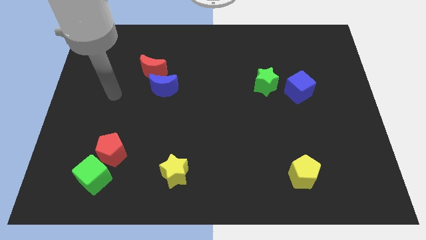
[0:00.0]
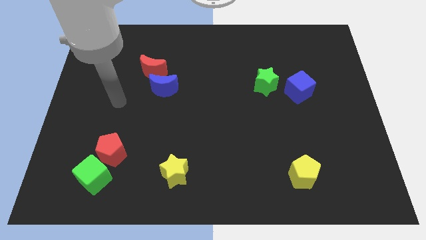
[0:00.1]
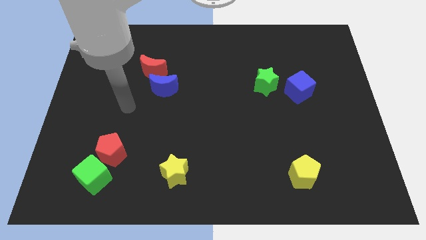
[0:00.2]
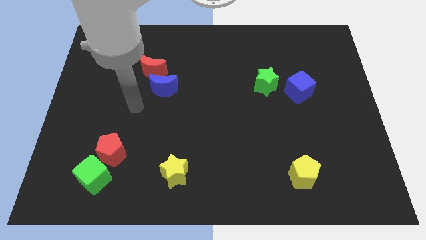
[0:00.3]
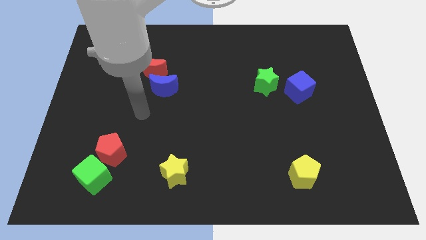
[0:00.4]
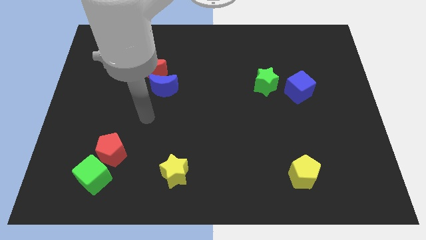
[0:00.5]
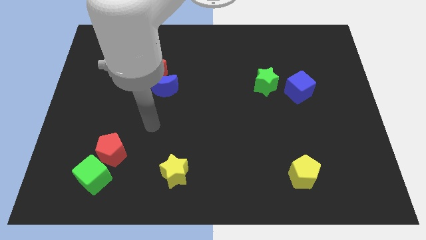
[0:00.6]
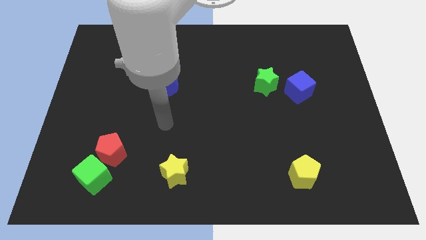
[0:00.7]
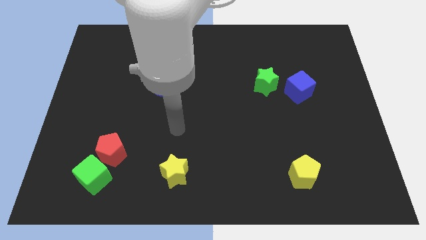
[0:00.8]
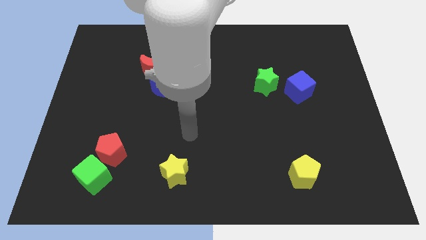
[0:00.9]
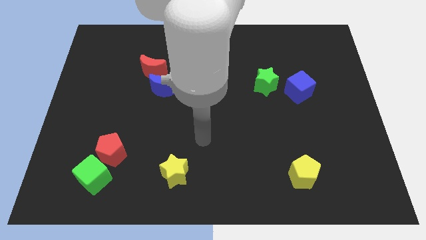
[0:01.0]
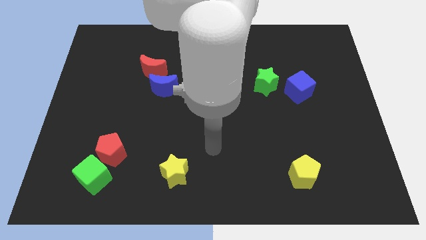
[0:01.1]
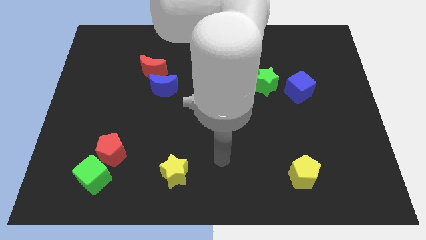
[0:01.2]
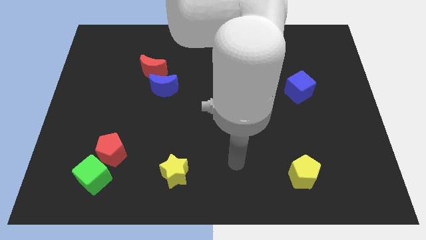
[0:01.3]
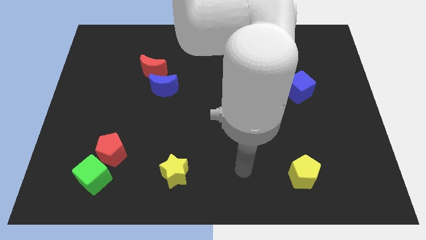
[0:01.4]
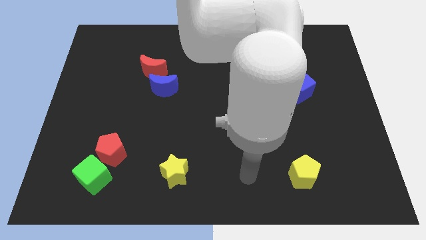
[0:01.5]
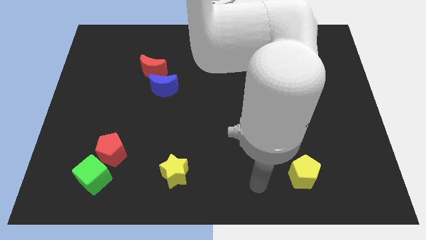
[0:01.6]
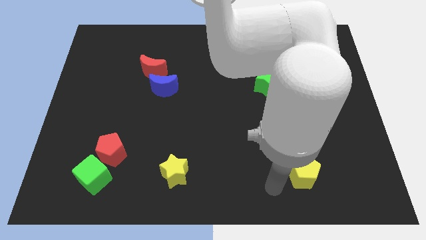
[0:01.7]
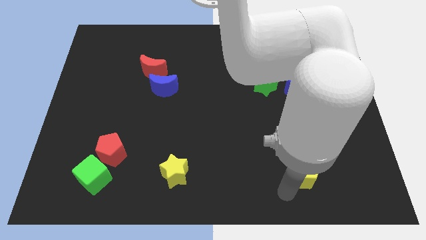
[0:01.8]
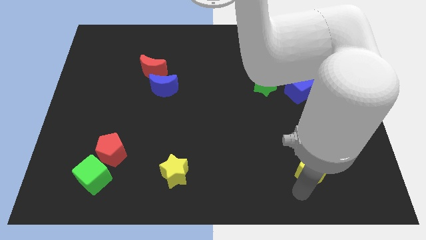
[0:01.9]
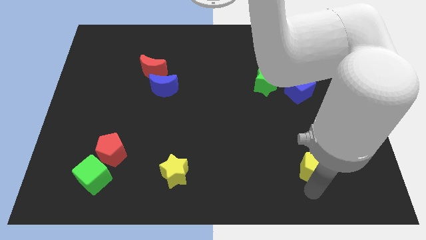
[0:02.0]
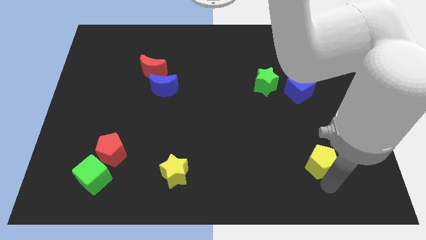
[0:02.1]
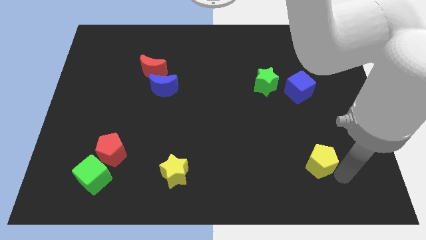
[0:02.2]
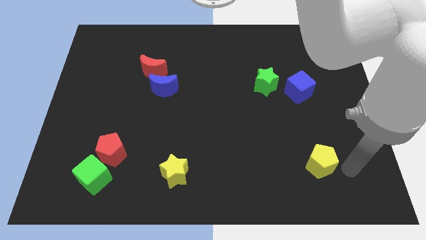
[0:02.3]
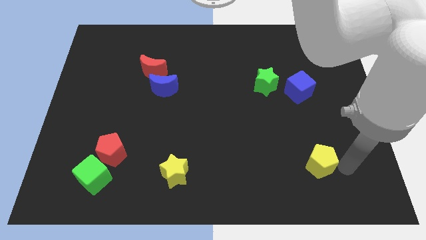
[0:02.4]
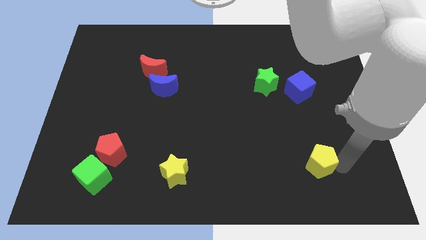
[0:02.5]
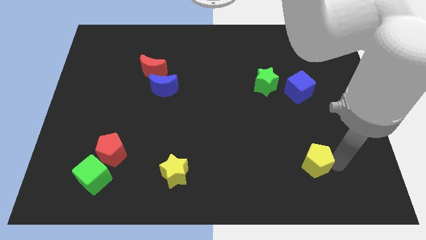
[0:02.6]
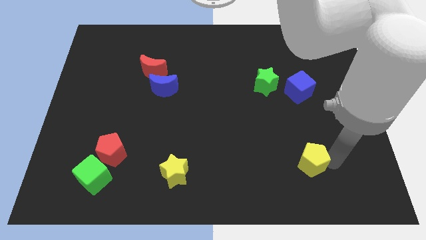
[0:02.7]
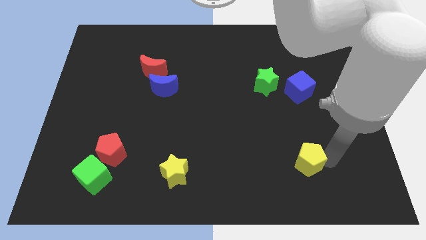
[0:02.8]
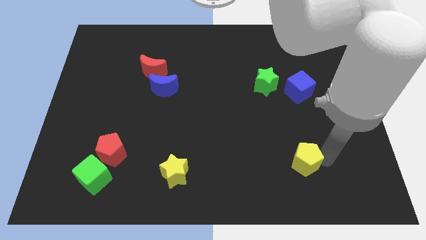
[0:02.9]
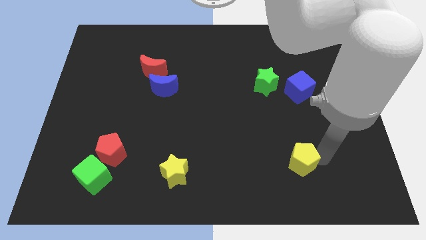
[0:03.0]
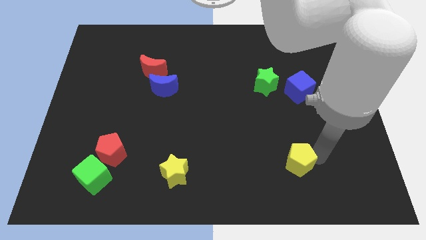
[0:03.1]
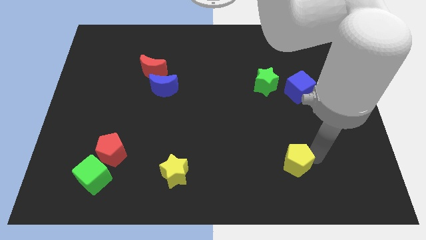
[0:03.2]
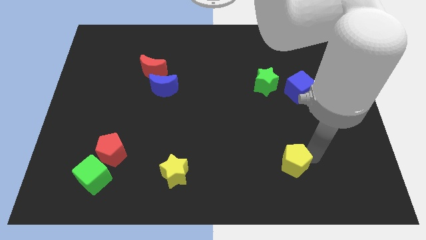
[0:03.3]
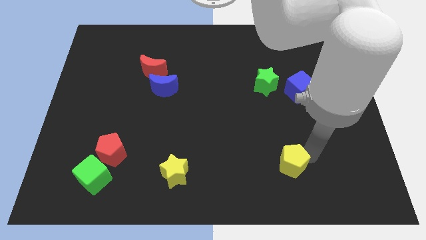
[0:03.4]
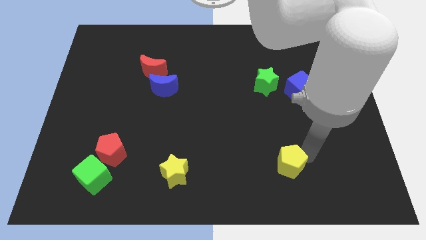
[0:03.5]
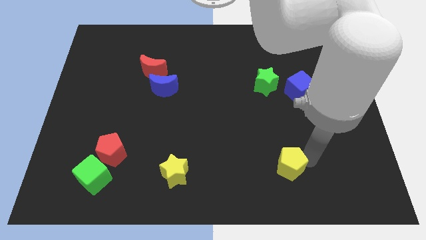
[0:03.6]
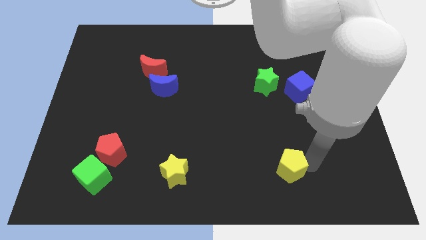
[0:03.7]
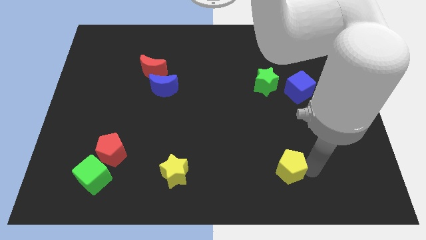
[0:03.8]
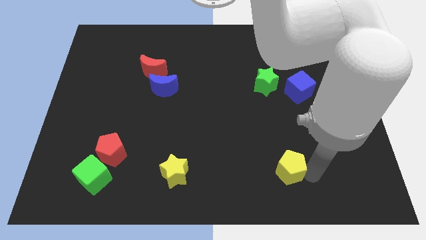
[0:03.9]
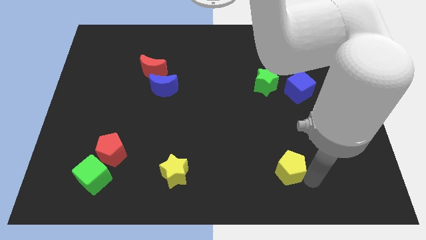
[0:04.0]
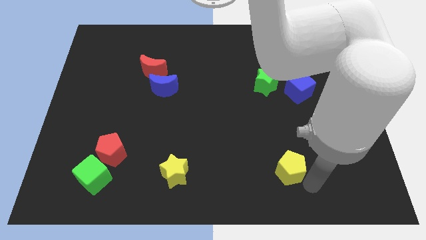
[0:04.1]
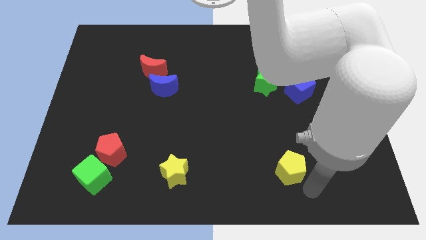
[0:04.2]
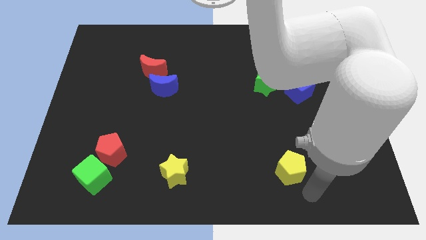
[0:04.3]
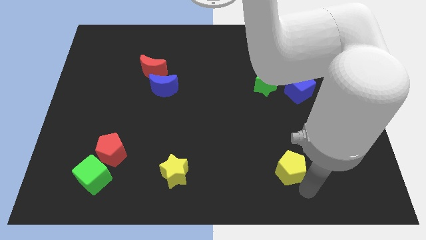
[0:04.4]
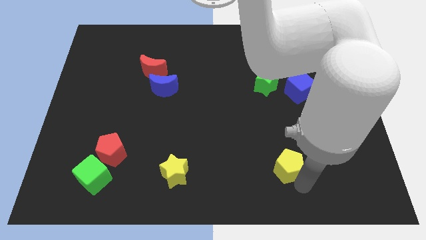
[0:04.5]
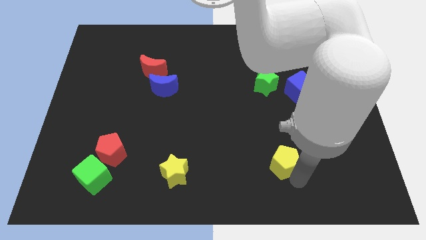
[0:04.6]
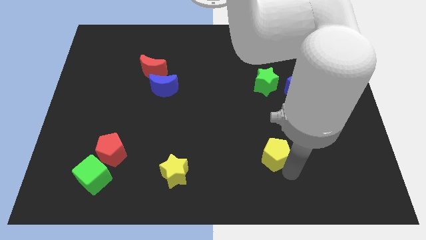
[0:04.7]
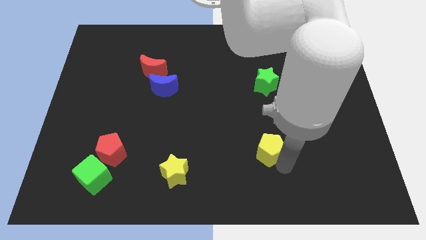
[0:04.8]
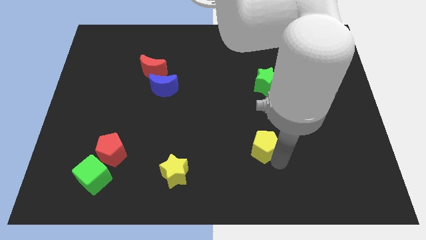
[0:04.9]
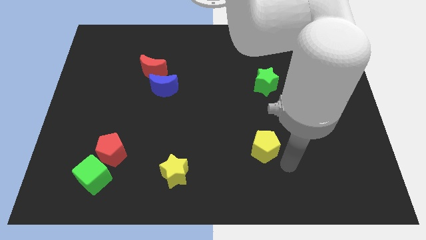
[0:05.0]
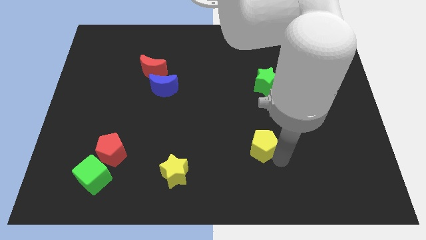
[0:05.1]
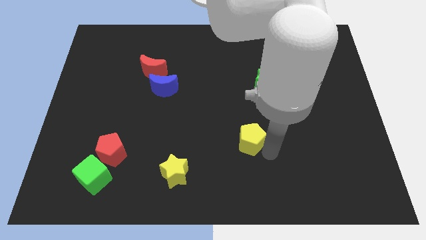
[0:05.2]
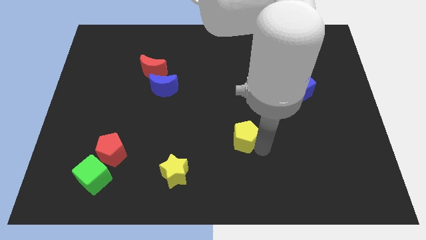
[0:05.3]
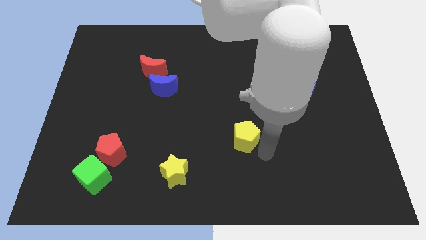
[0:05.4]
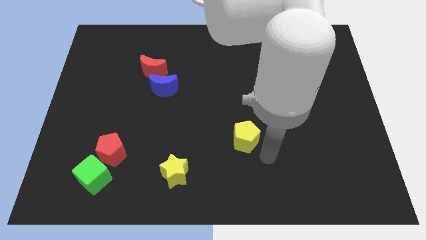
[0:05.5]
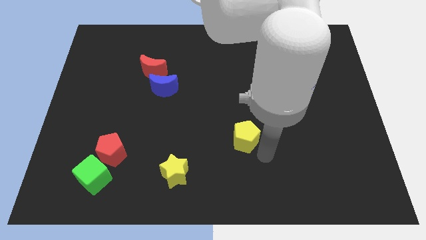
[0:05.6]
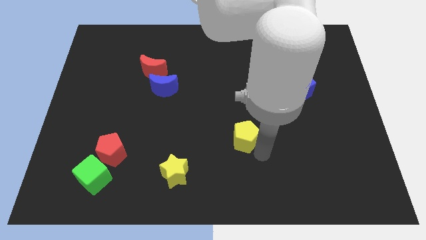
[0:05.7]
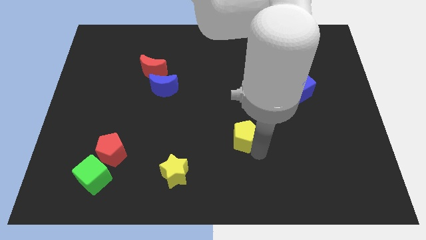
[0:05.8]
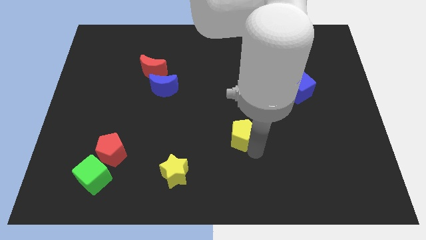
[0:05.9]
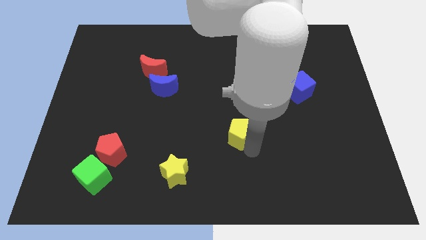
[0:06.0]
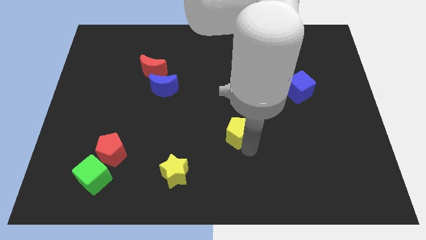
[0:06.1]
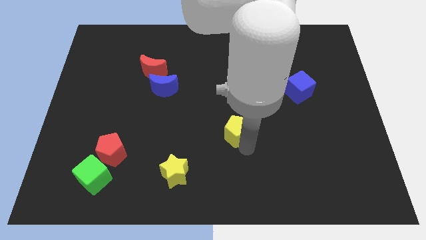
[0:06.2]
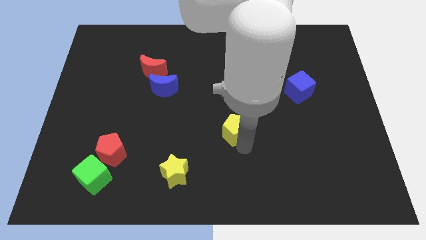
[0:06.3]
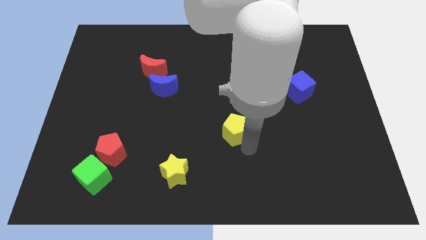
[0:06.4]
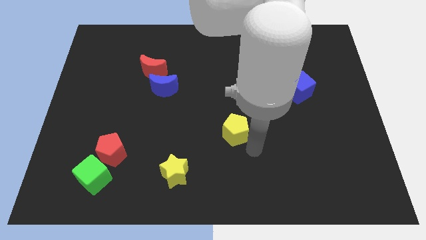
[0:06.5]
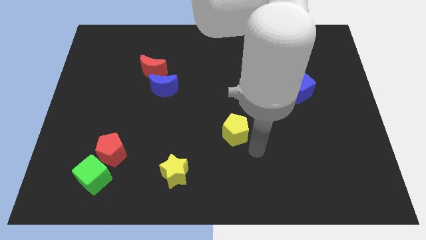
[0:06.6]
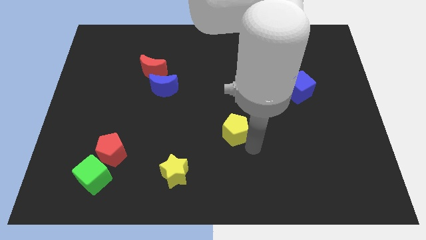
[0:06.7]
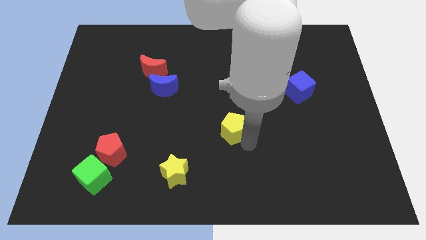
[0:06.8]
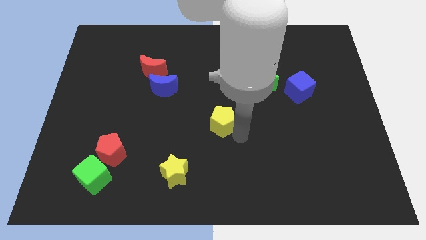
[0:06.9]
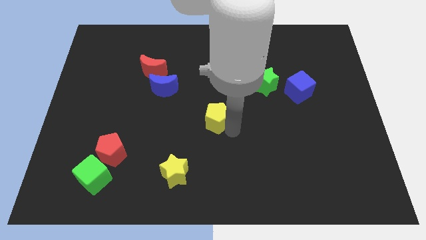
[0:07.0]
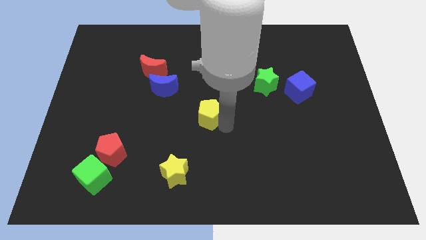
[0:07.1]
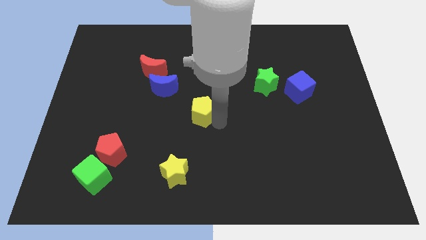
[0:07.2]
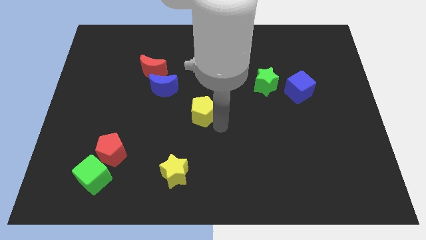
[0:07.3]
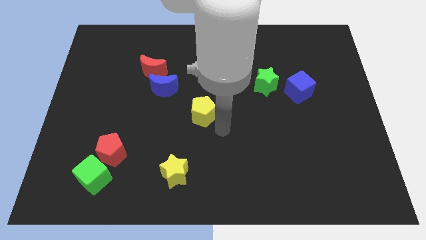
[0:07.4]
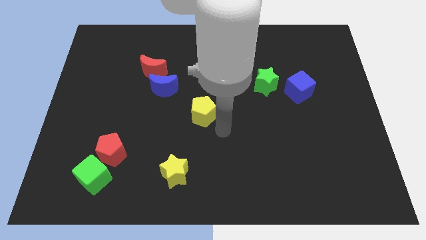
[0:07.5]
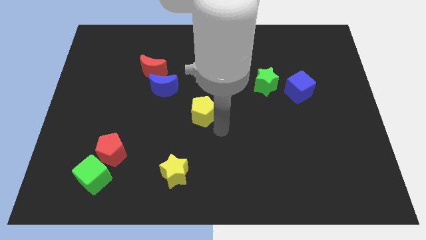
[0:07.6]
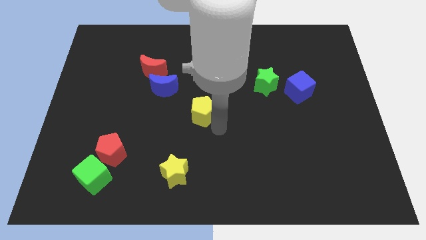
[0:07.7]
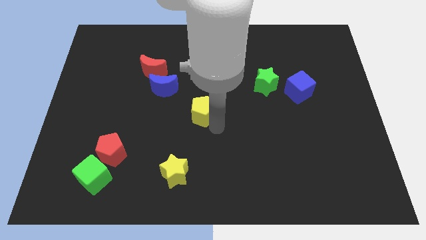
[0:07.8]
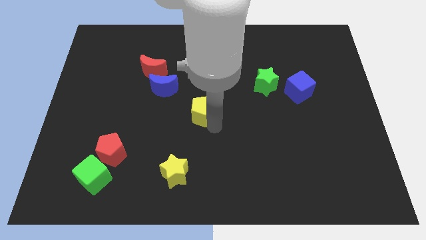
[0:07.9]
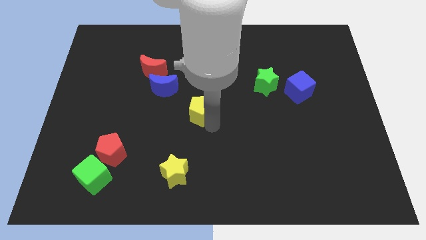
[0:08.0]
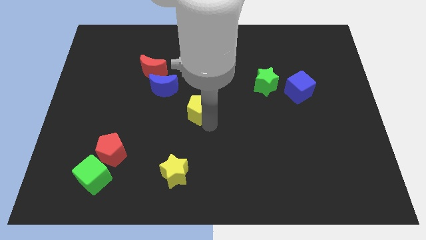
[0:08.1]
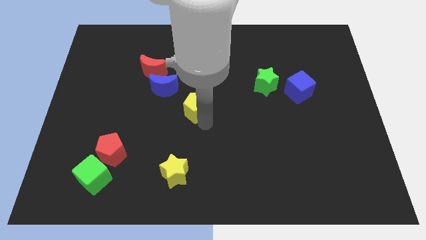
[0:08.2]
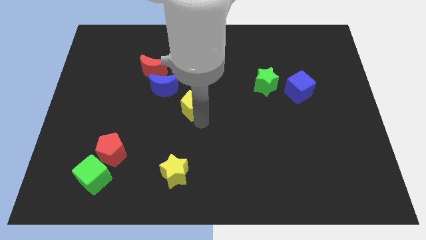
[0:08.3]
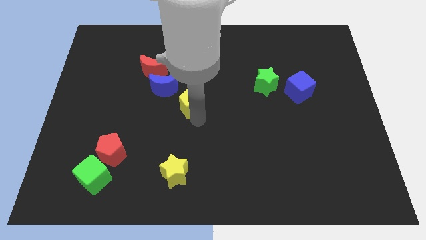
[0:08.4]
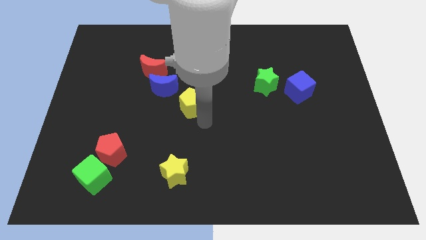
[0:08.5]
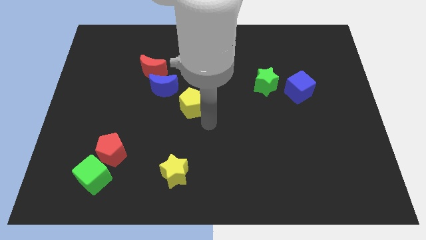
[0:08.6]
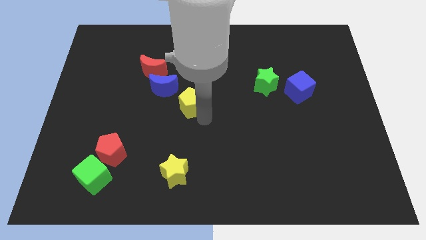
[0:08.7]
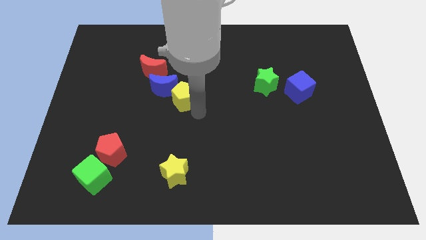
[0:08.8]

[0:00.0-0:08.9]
push the yellow pentagon diagonally down and to the right of the red moon
